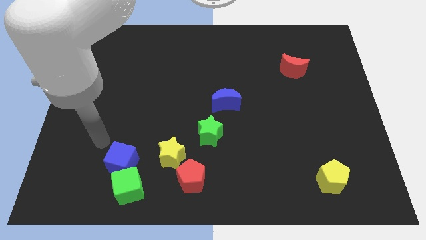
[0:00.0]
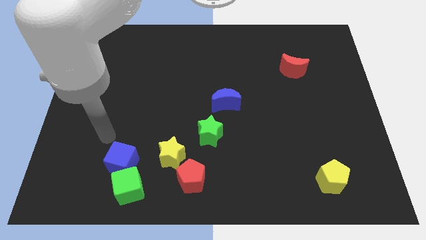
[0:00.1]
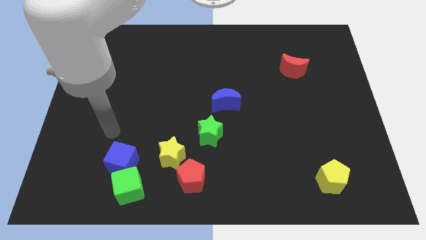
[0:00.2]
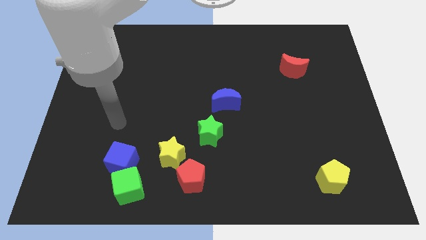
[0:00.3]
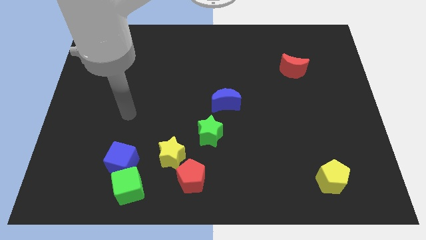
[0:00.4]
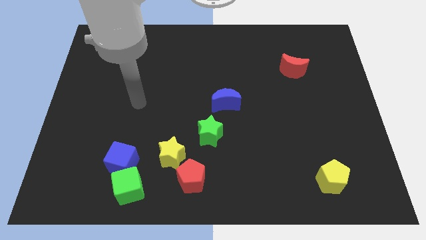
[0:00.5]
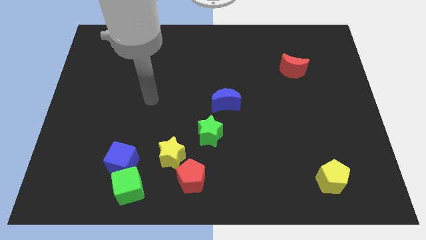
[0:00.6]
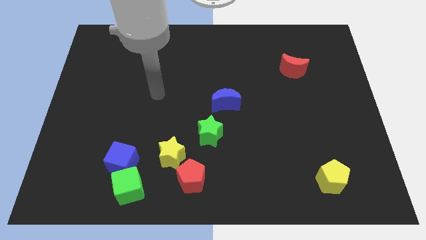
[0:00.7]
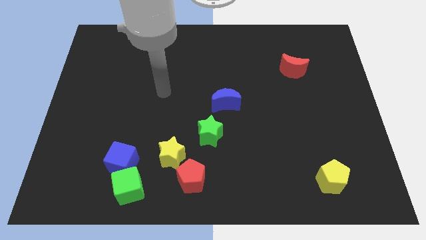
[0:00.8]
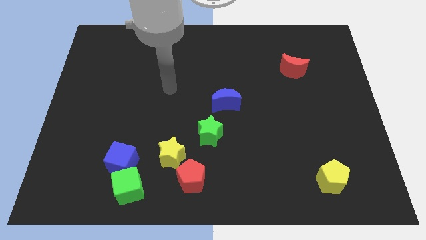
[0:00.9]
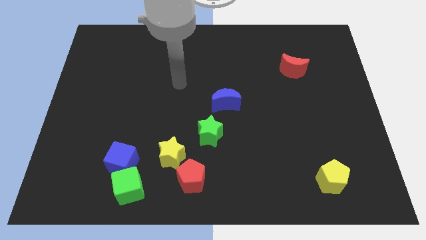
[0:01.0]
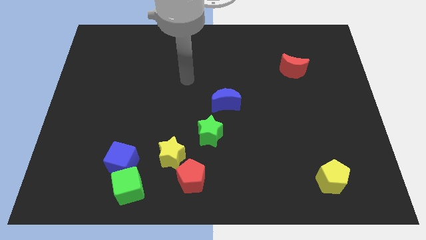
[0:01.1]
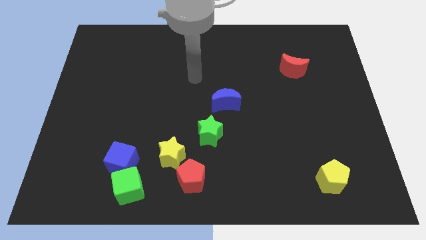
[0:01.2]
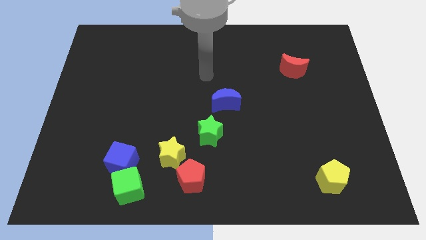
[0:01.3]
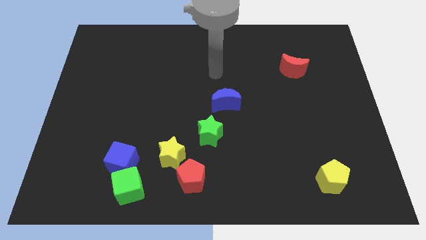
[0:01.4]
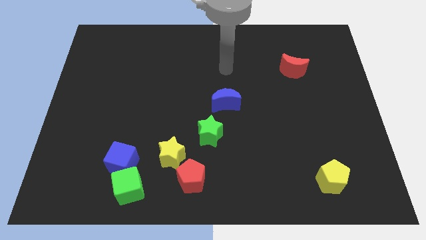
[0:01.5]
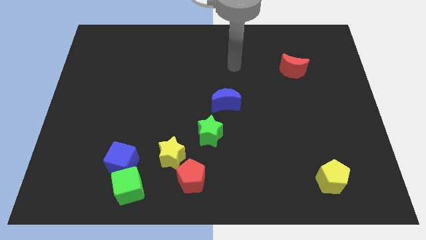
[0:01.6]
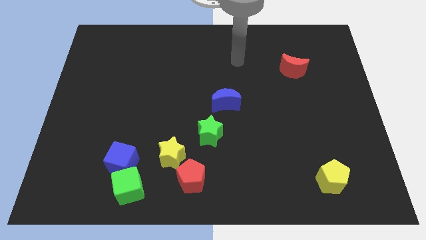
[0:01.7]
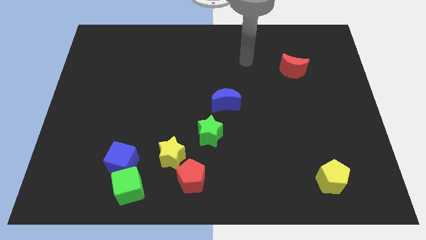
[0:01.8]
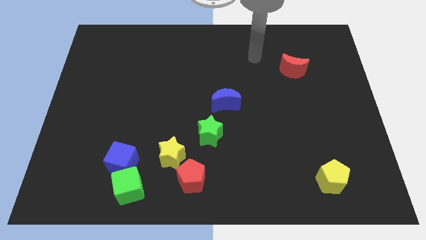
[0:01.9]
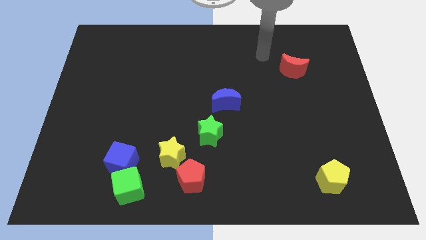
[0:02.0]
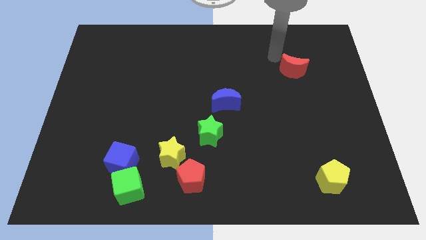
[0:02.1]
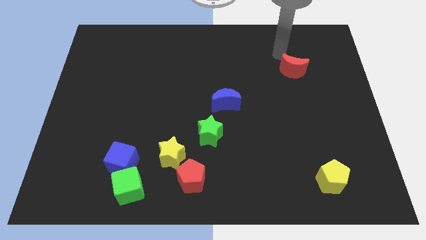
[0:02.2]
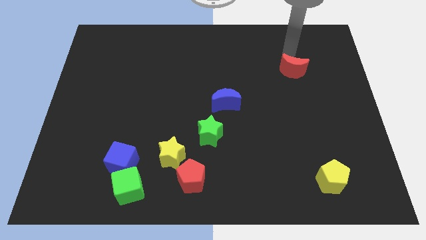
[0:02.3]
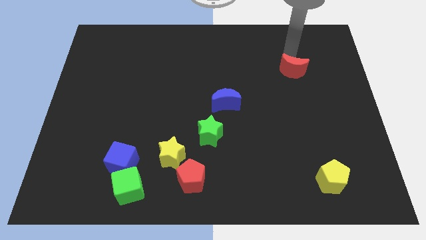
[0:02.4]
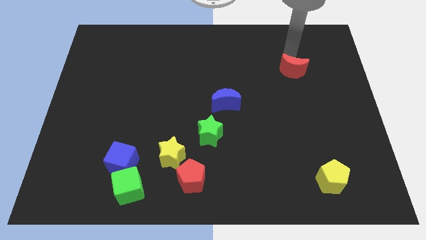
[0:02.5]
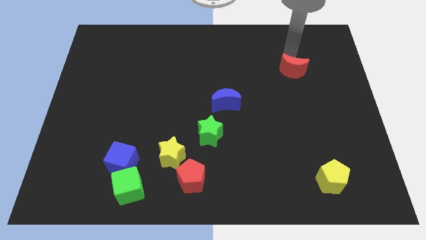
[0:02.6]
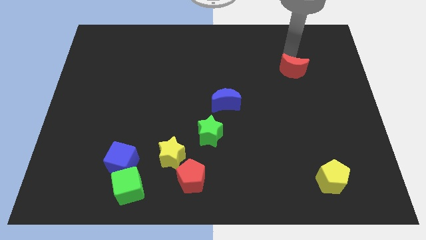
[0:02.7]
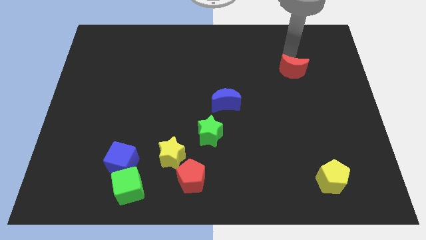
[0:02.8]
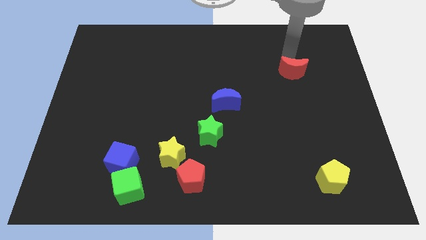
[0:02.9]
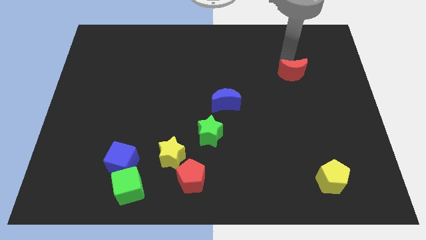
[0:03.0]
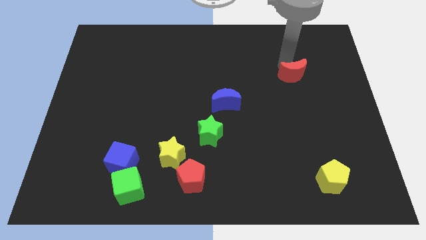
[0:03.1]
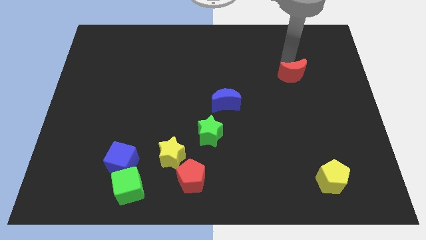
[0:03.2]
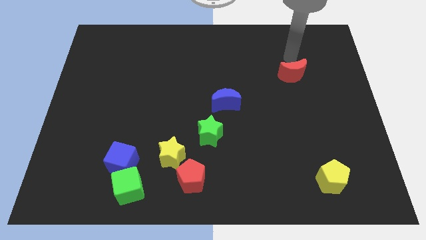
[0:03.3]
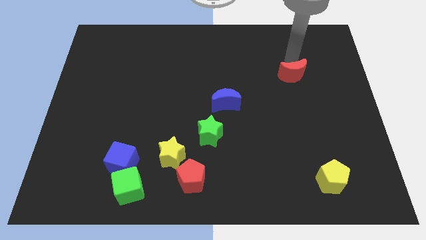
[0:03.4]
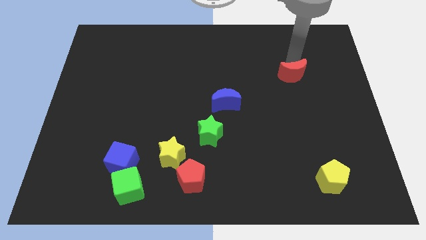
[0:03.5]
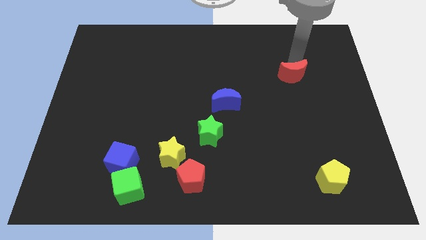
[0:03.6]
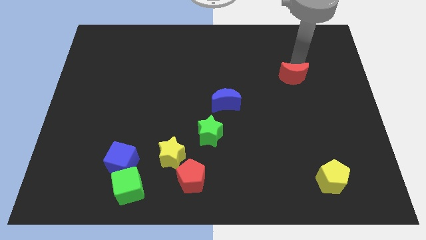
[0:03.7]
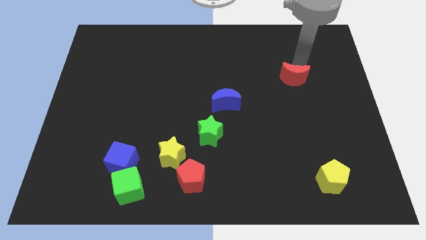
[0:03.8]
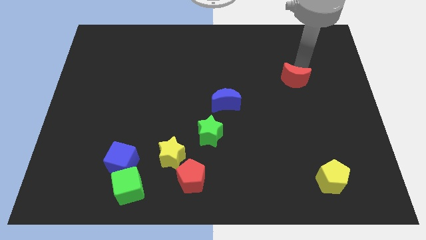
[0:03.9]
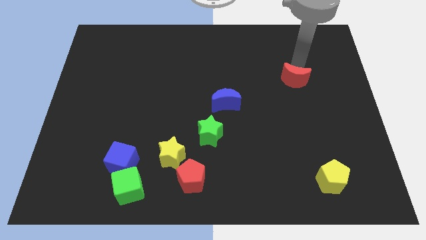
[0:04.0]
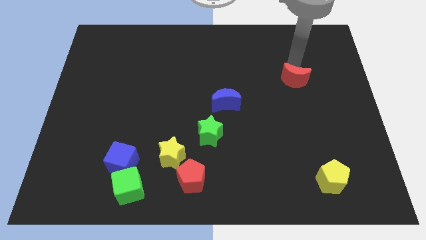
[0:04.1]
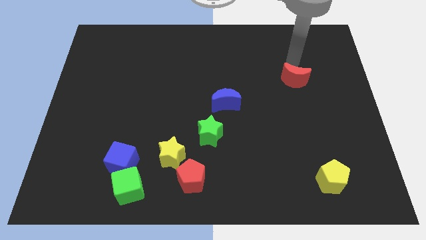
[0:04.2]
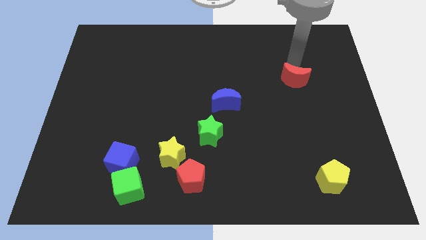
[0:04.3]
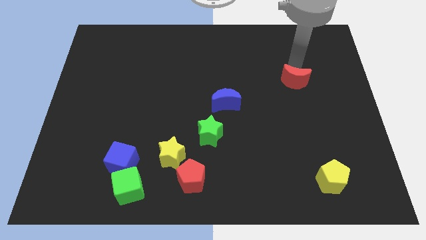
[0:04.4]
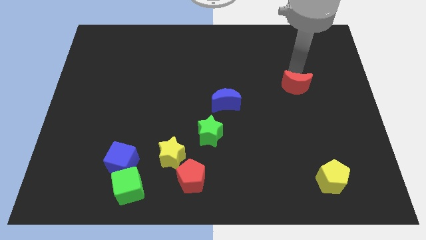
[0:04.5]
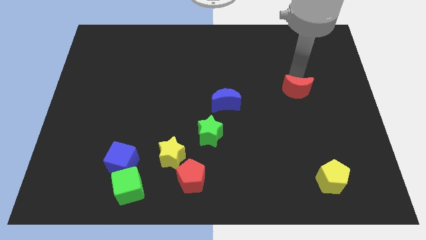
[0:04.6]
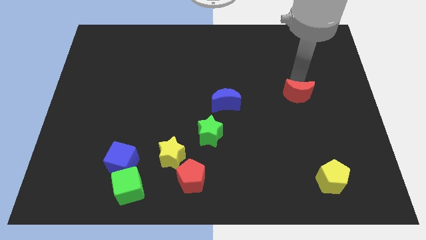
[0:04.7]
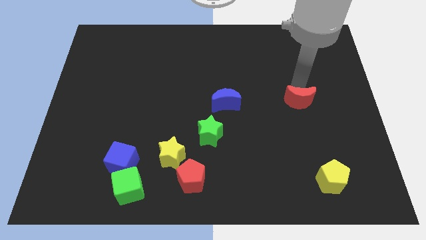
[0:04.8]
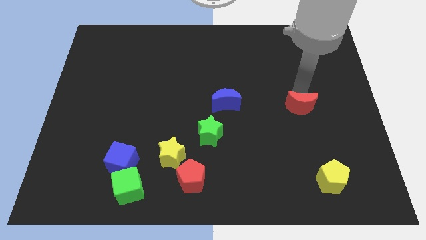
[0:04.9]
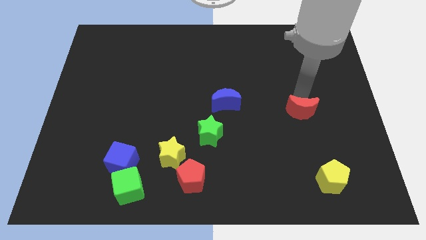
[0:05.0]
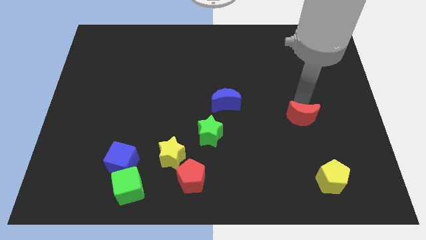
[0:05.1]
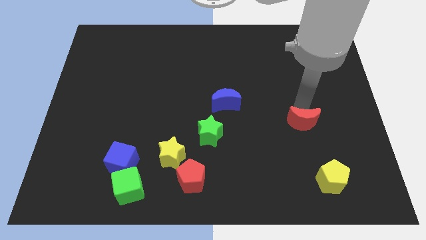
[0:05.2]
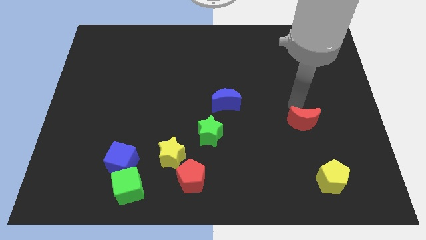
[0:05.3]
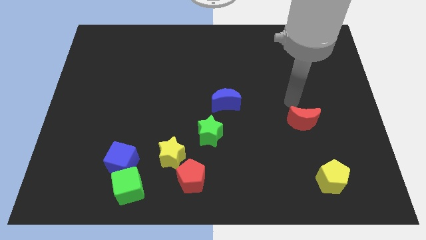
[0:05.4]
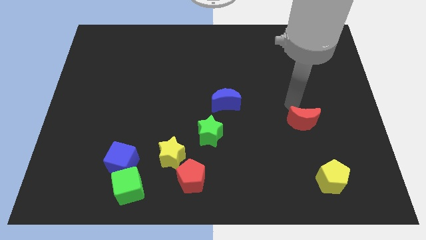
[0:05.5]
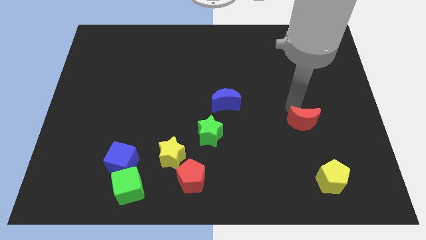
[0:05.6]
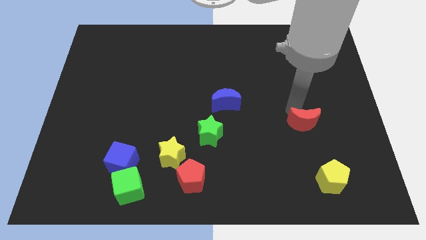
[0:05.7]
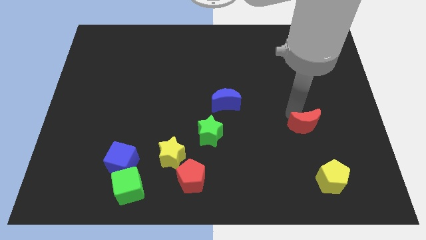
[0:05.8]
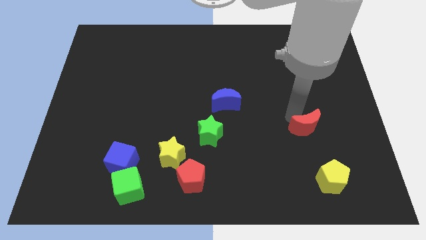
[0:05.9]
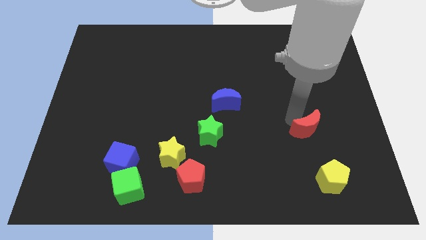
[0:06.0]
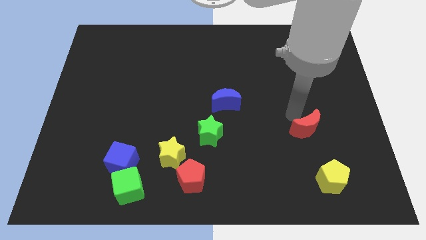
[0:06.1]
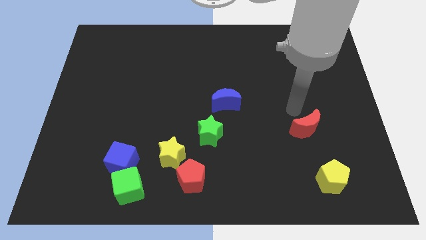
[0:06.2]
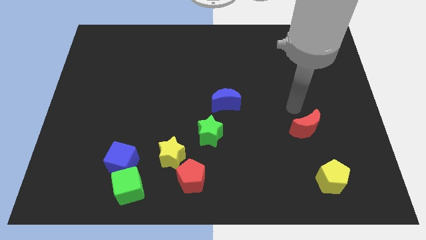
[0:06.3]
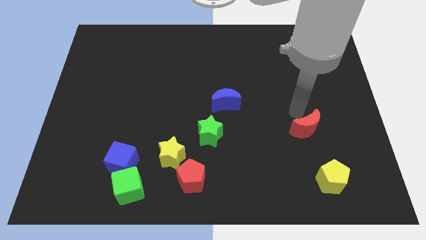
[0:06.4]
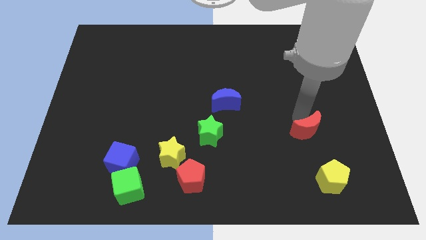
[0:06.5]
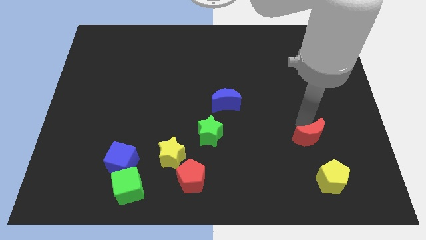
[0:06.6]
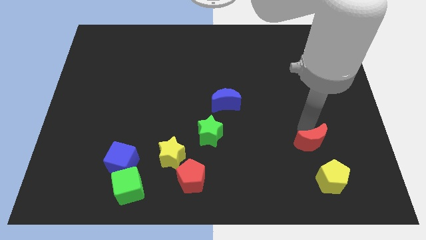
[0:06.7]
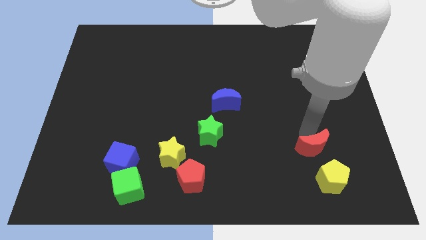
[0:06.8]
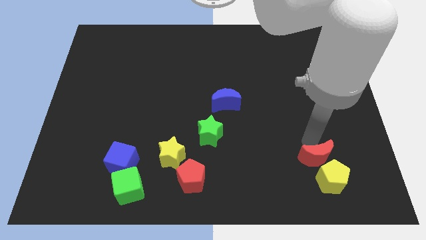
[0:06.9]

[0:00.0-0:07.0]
slide the red moon towards the yellow pentagon
